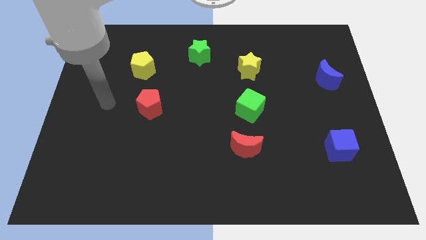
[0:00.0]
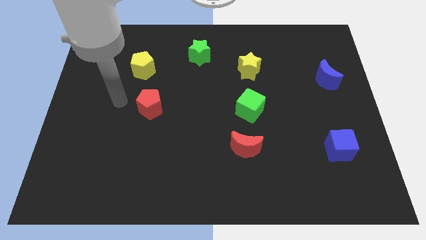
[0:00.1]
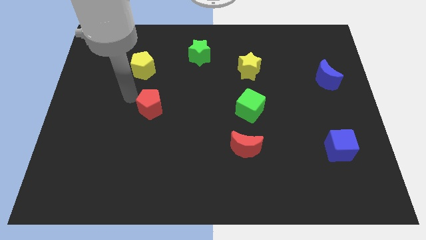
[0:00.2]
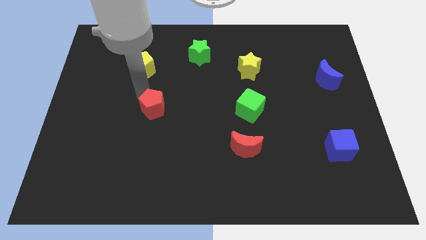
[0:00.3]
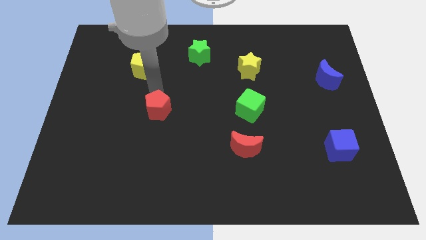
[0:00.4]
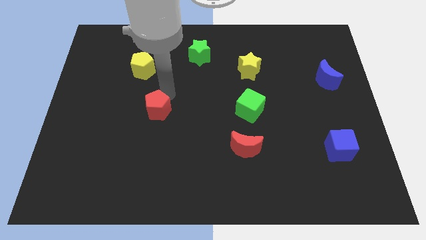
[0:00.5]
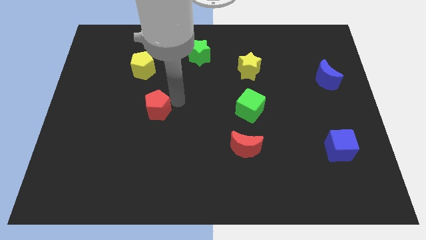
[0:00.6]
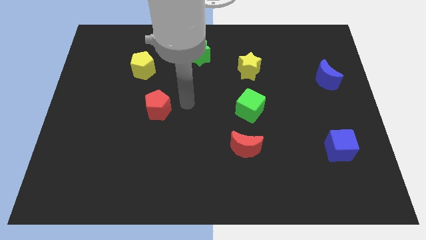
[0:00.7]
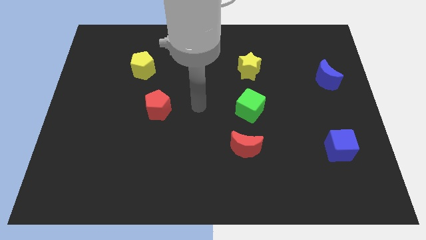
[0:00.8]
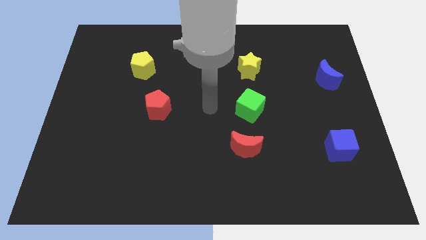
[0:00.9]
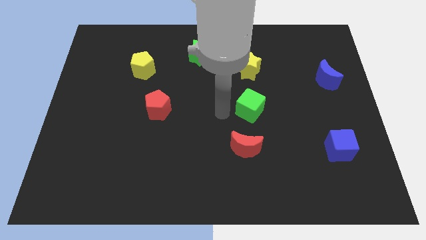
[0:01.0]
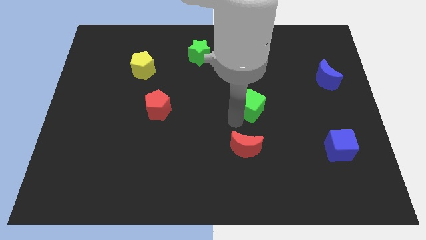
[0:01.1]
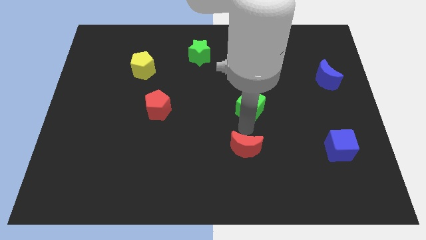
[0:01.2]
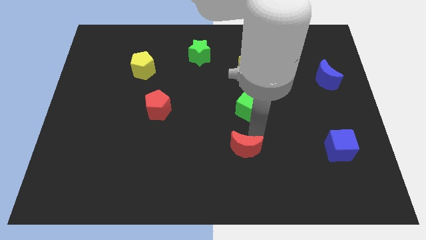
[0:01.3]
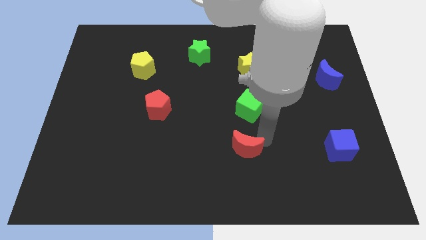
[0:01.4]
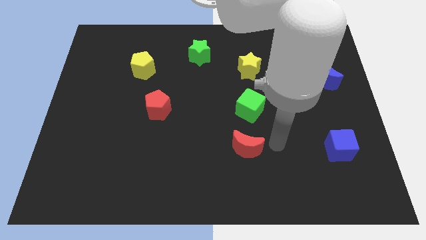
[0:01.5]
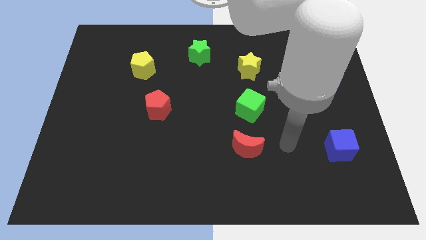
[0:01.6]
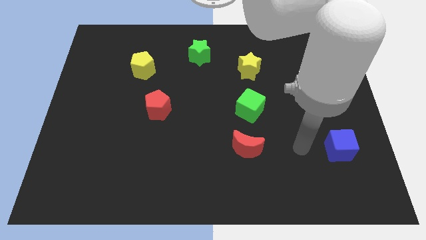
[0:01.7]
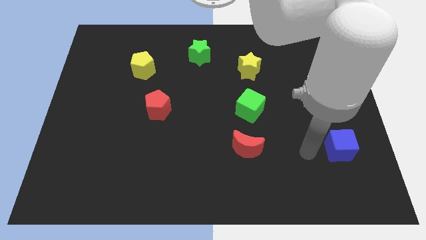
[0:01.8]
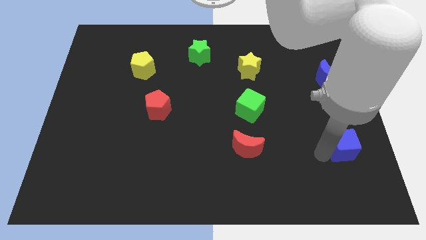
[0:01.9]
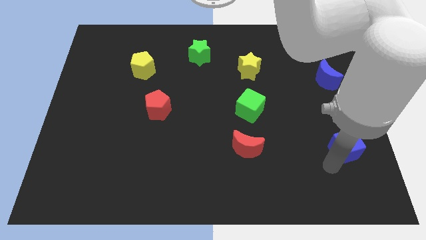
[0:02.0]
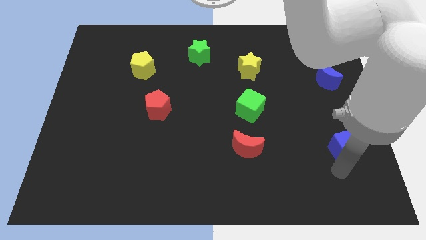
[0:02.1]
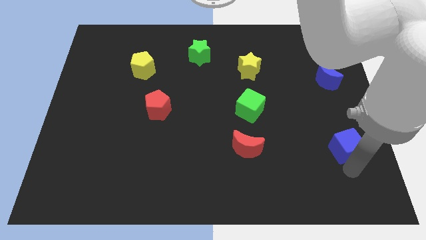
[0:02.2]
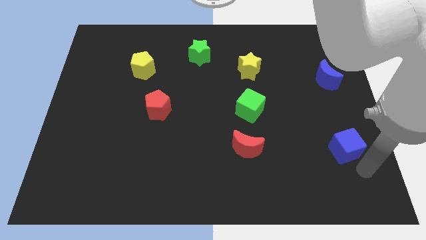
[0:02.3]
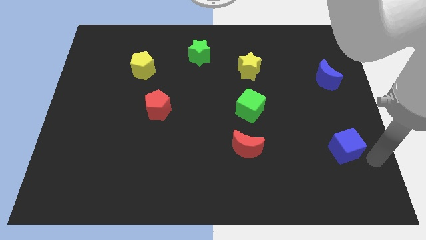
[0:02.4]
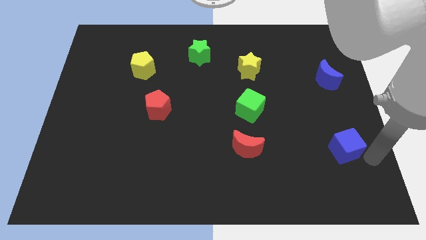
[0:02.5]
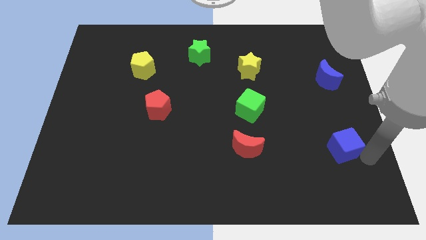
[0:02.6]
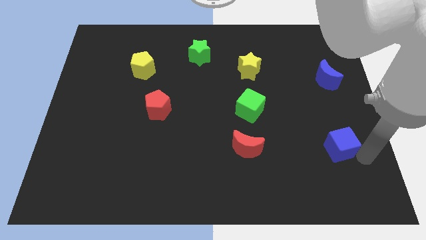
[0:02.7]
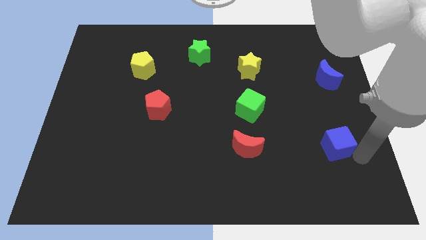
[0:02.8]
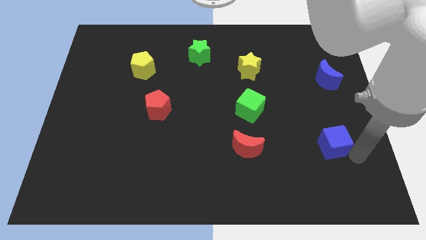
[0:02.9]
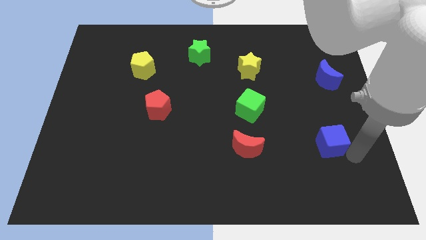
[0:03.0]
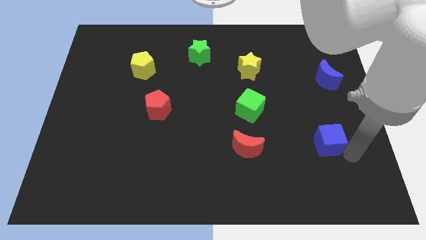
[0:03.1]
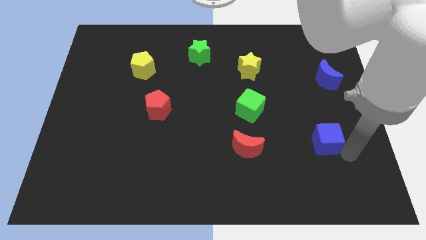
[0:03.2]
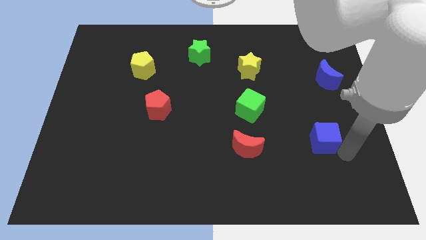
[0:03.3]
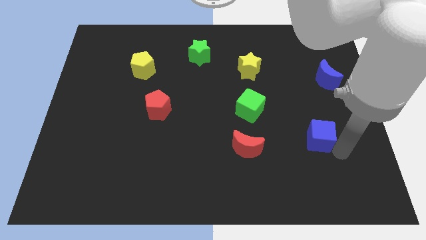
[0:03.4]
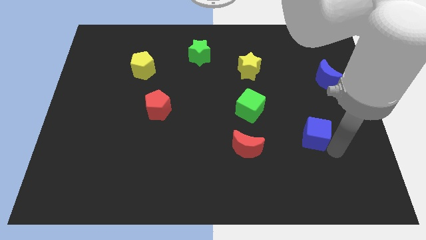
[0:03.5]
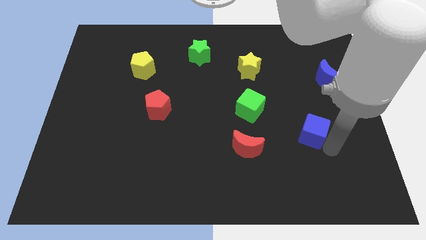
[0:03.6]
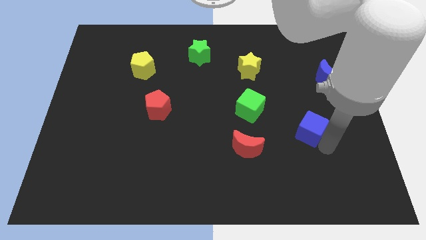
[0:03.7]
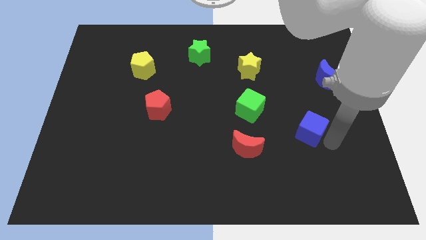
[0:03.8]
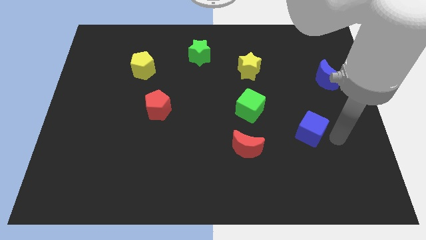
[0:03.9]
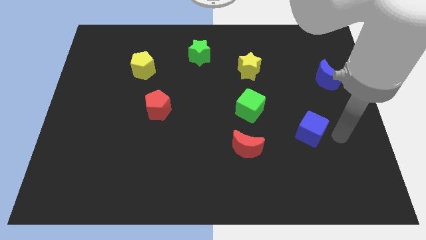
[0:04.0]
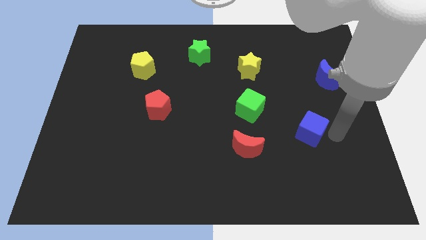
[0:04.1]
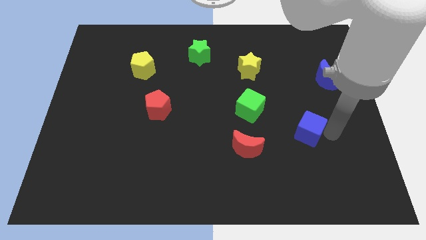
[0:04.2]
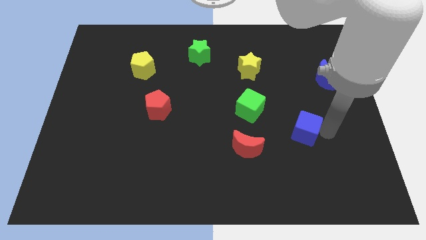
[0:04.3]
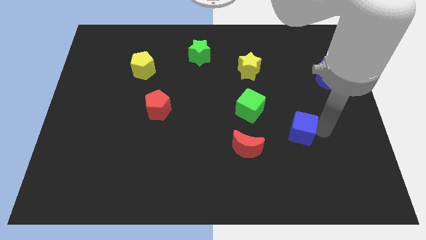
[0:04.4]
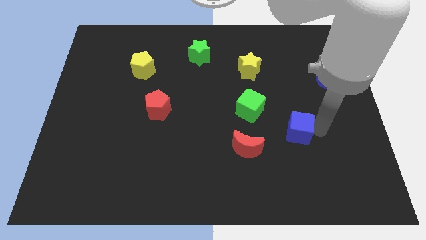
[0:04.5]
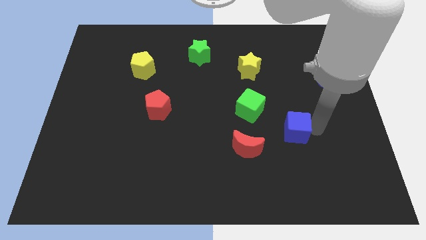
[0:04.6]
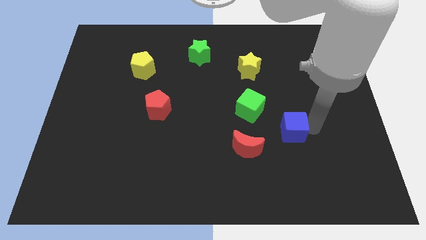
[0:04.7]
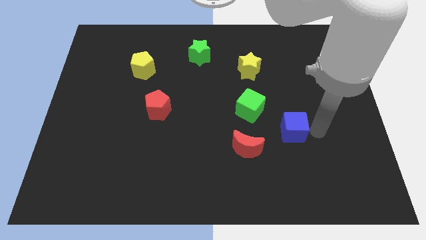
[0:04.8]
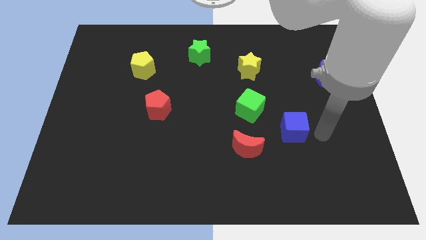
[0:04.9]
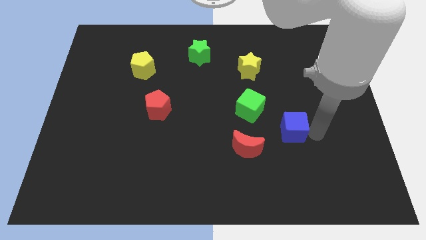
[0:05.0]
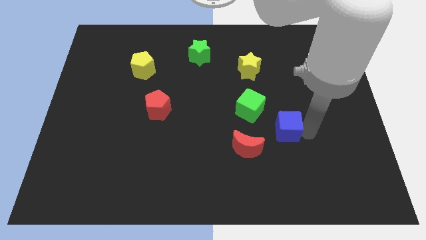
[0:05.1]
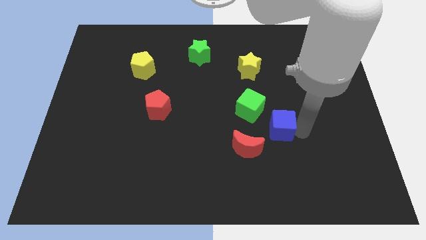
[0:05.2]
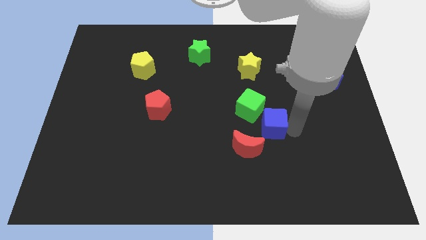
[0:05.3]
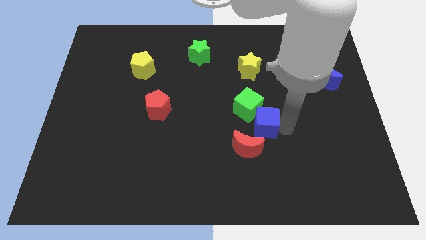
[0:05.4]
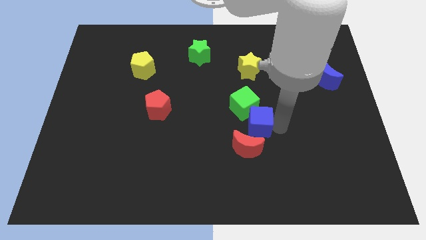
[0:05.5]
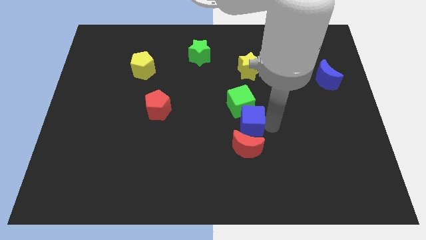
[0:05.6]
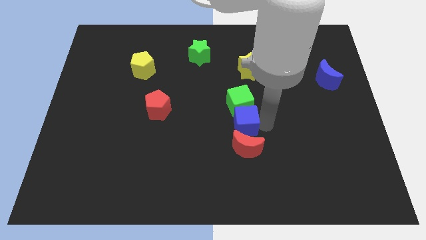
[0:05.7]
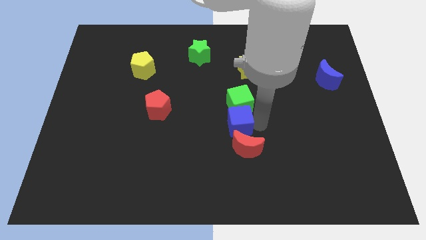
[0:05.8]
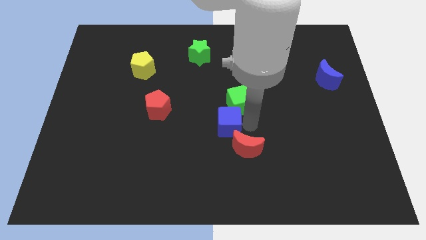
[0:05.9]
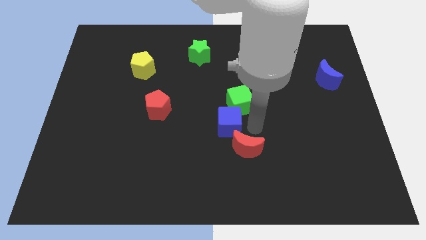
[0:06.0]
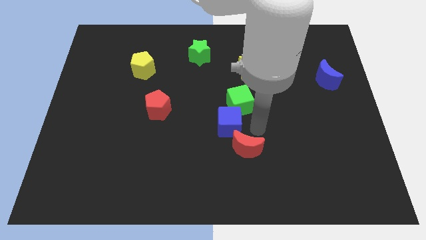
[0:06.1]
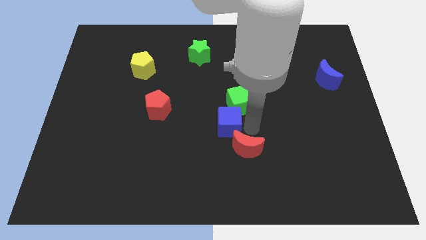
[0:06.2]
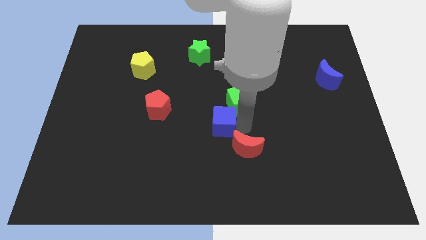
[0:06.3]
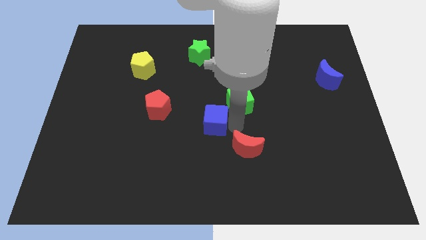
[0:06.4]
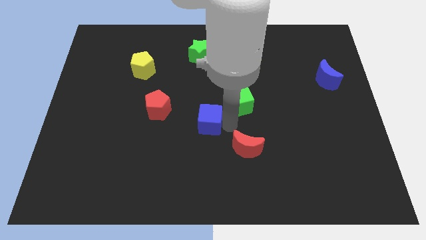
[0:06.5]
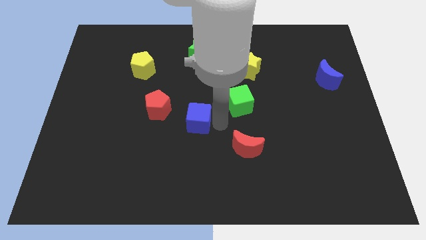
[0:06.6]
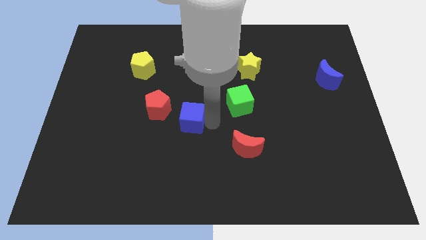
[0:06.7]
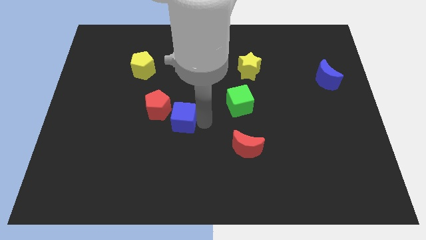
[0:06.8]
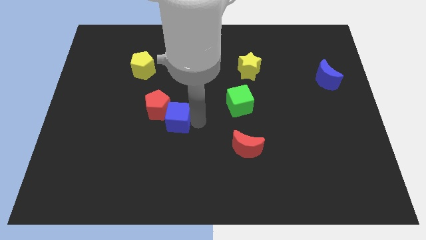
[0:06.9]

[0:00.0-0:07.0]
push the blue cube to the red pentagon
